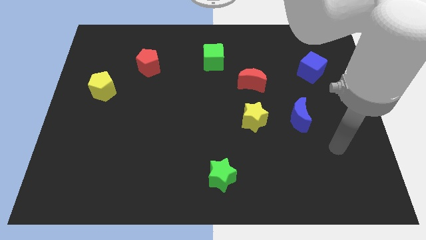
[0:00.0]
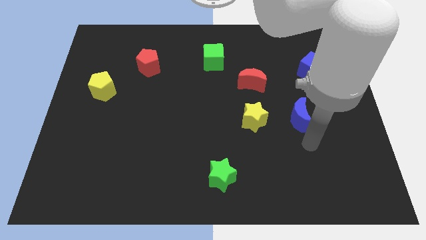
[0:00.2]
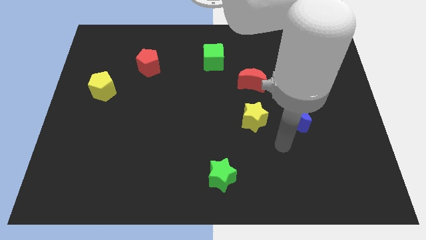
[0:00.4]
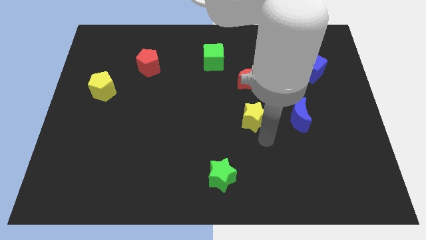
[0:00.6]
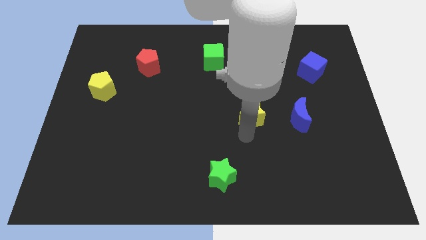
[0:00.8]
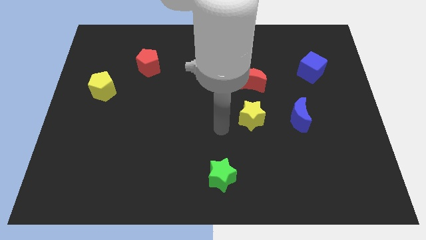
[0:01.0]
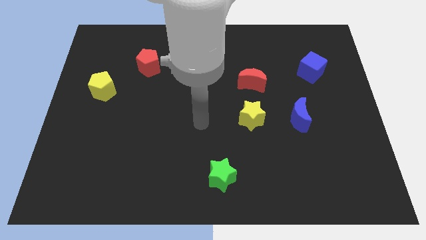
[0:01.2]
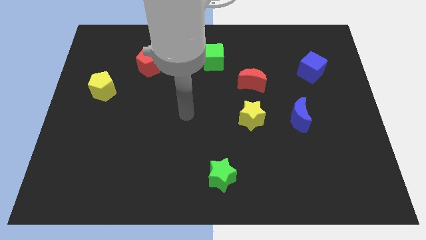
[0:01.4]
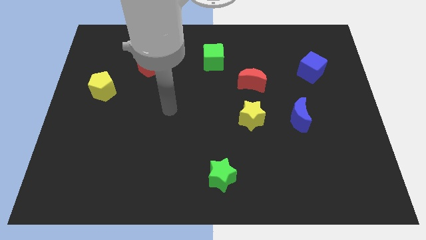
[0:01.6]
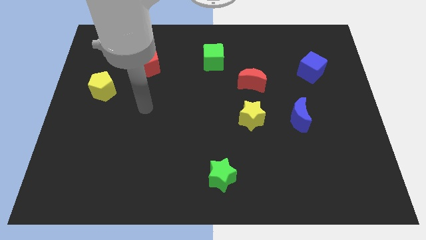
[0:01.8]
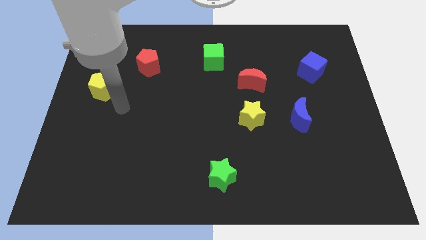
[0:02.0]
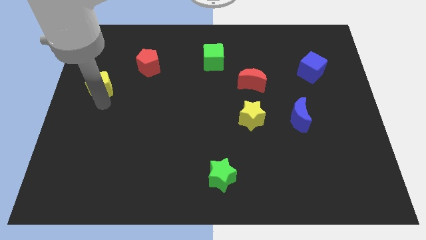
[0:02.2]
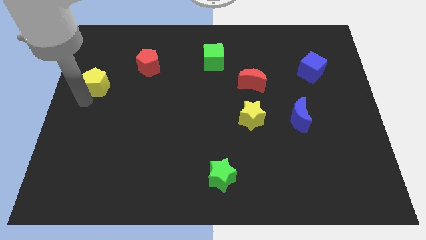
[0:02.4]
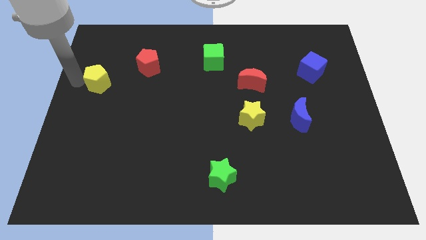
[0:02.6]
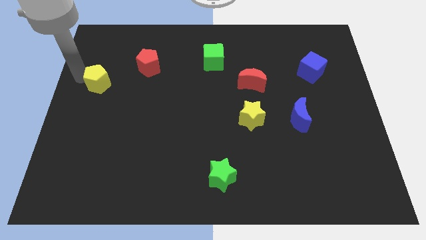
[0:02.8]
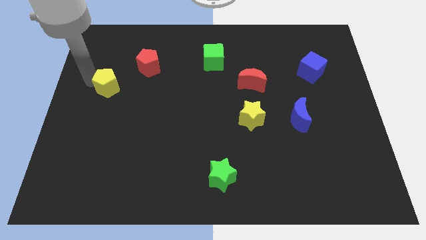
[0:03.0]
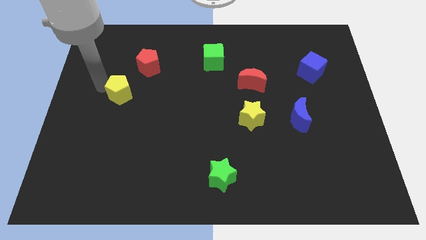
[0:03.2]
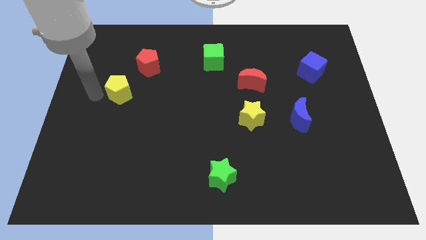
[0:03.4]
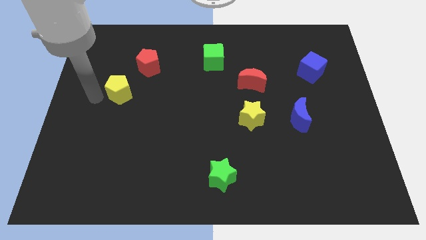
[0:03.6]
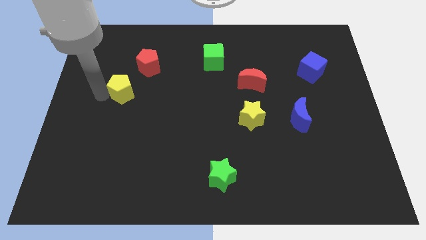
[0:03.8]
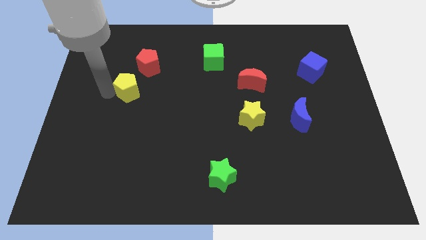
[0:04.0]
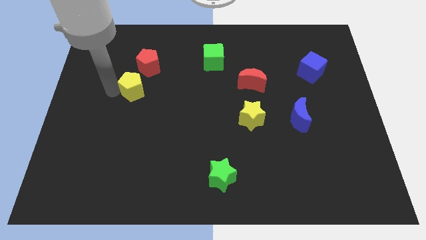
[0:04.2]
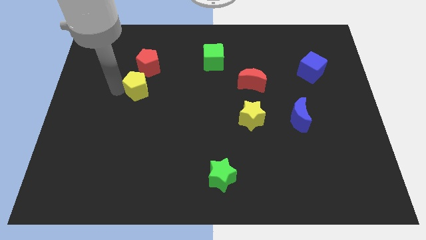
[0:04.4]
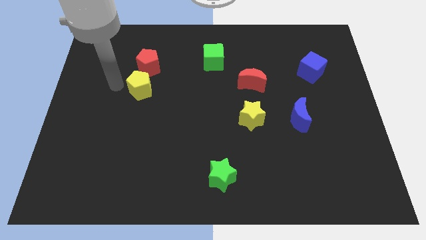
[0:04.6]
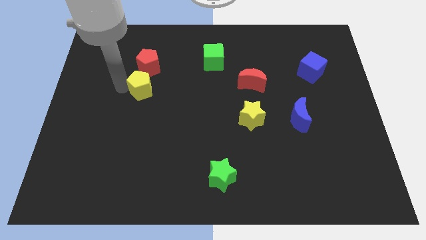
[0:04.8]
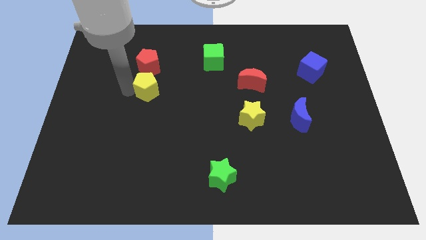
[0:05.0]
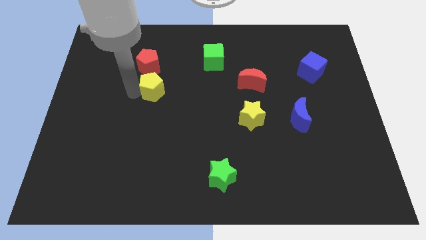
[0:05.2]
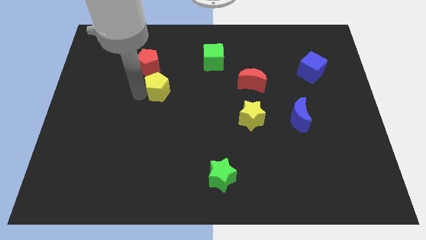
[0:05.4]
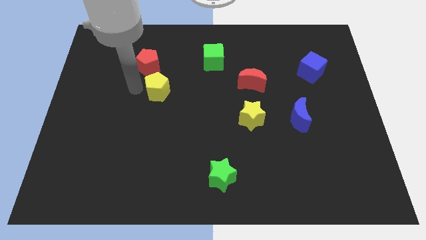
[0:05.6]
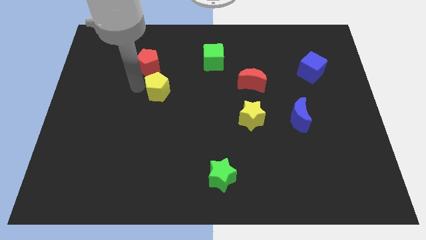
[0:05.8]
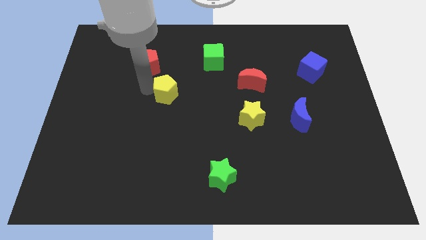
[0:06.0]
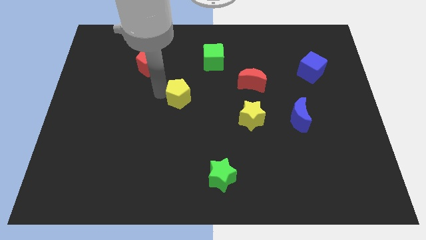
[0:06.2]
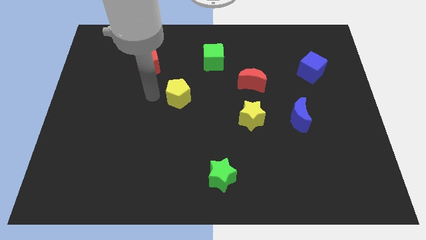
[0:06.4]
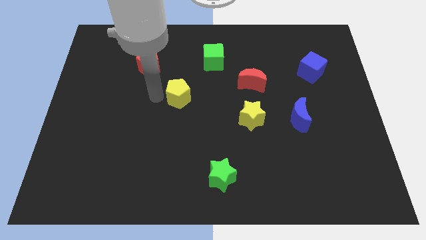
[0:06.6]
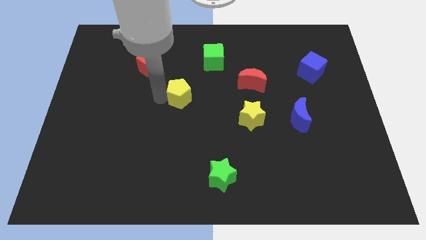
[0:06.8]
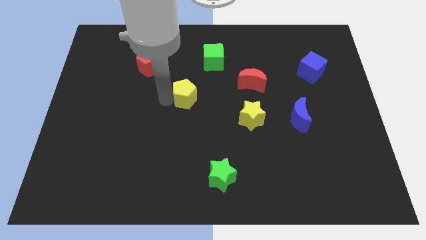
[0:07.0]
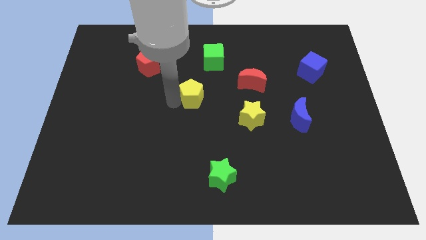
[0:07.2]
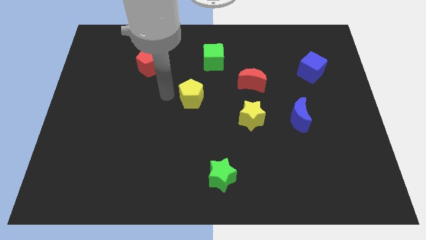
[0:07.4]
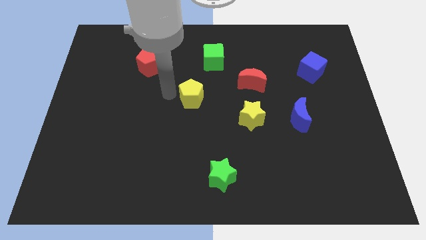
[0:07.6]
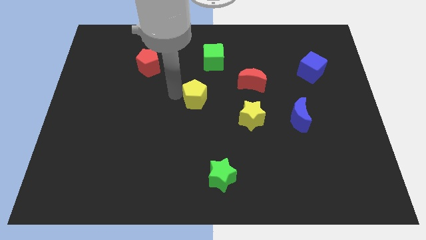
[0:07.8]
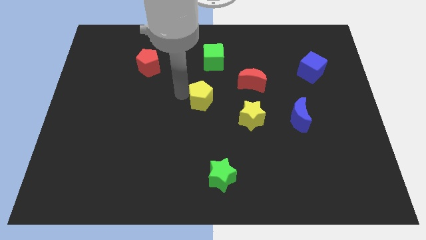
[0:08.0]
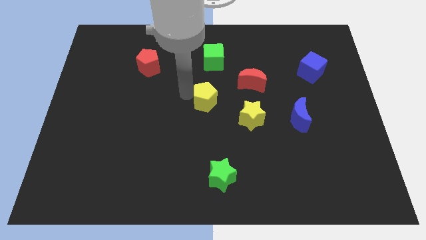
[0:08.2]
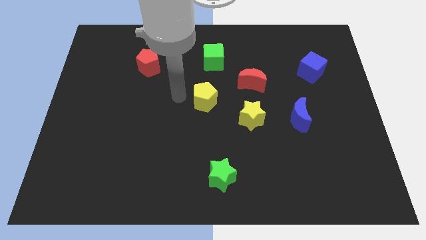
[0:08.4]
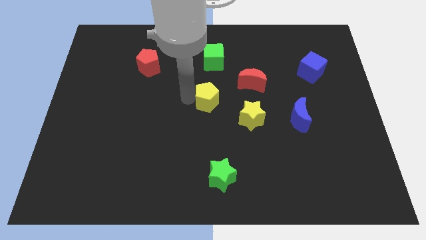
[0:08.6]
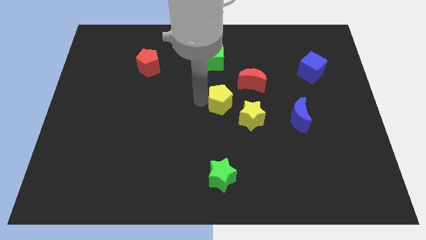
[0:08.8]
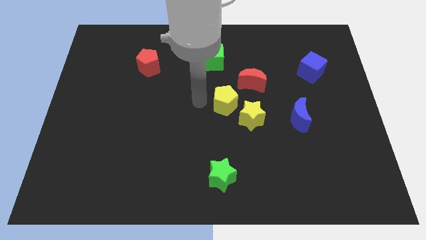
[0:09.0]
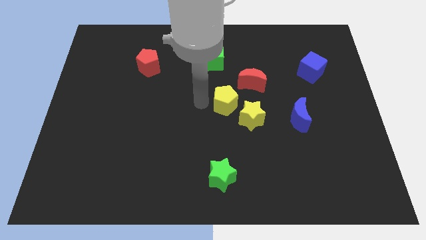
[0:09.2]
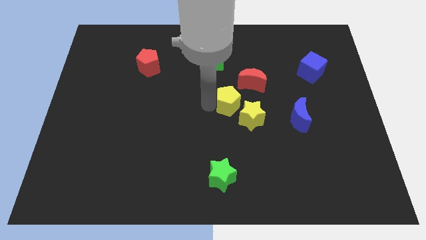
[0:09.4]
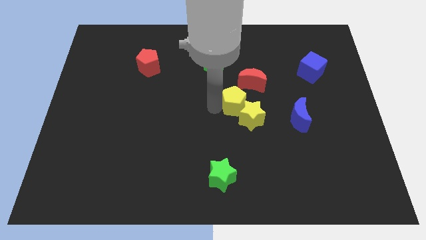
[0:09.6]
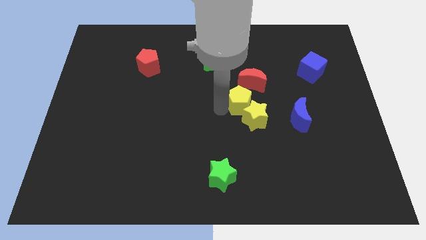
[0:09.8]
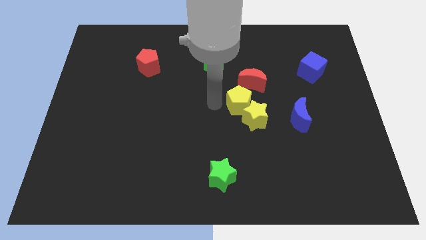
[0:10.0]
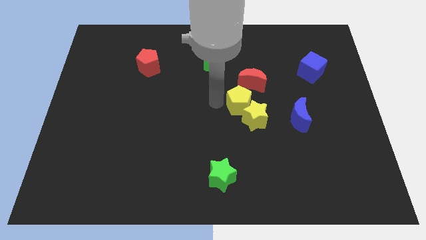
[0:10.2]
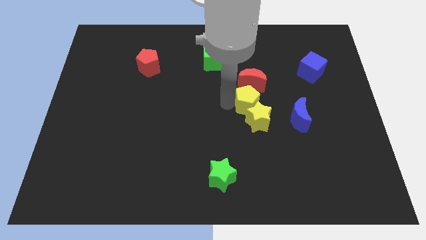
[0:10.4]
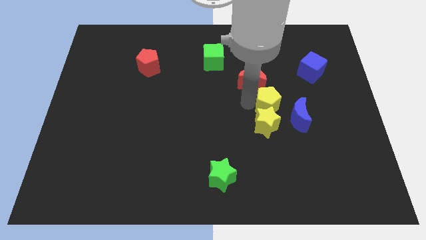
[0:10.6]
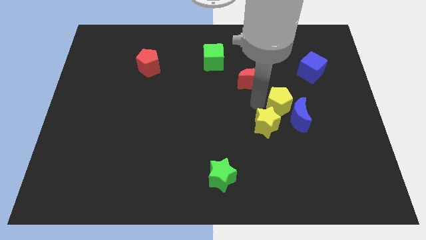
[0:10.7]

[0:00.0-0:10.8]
move the yellow pentagon next to the blue moon

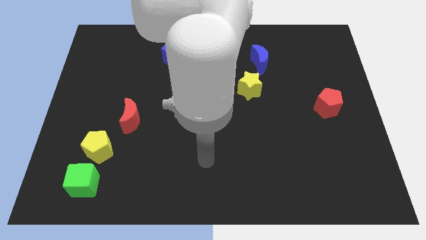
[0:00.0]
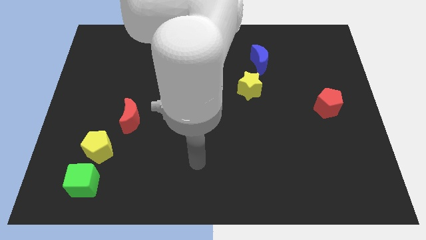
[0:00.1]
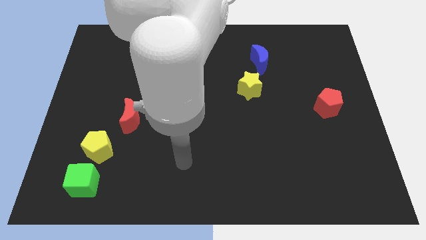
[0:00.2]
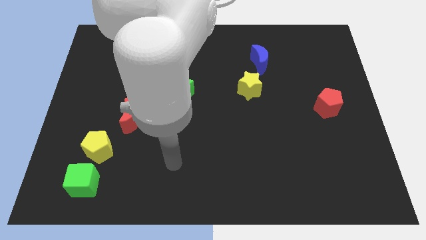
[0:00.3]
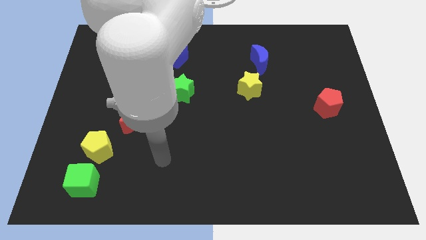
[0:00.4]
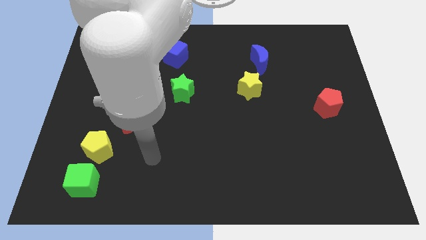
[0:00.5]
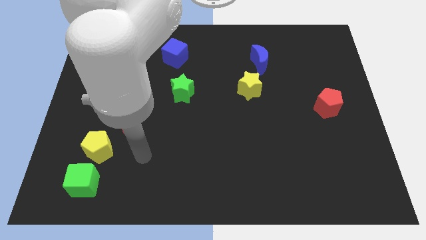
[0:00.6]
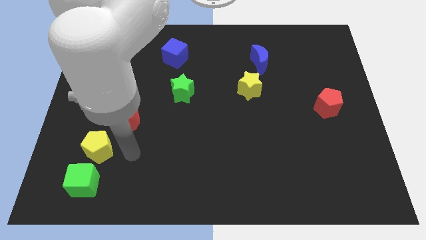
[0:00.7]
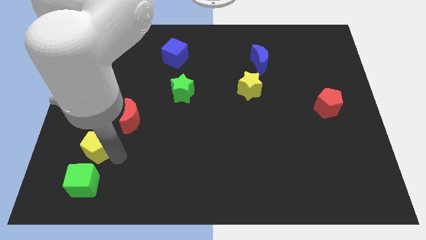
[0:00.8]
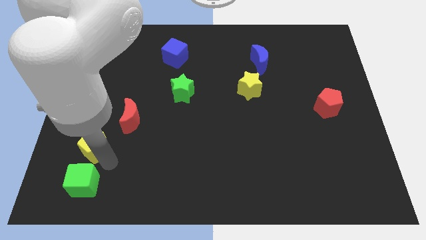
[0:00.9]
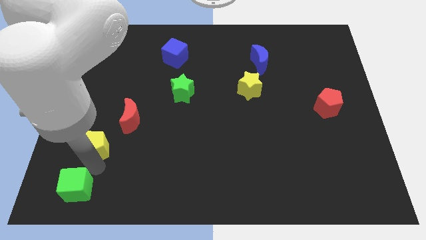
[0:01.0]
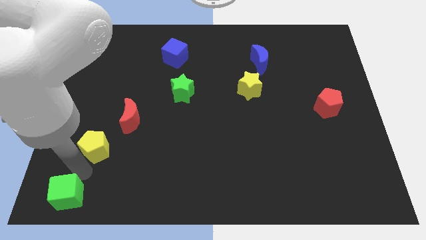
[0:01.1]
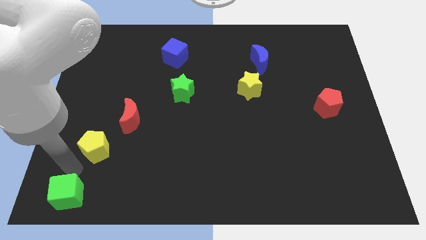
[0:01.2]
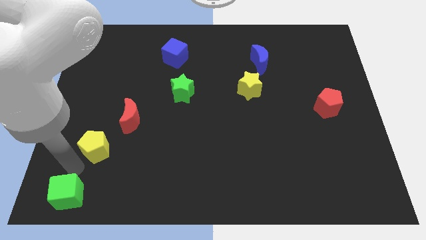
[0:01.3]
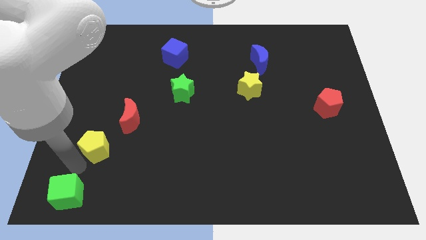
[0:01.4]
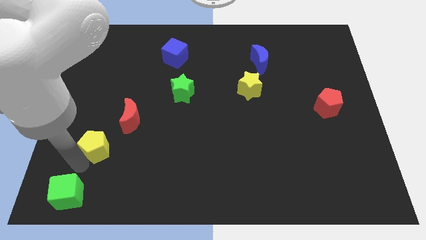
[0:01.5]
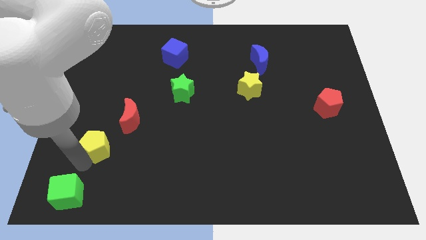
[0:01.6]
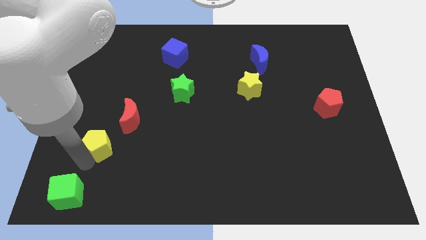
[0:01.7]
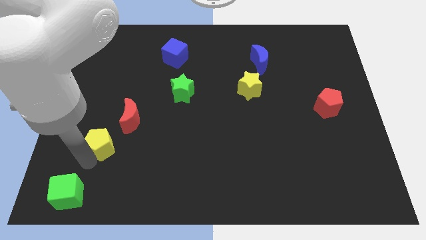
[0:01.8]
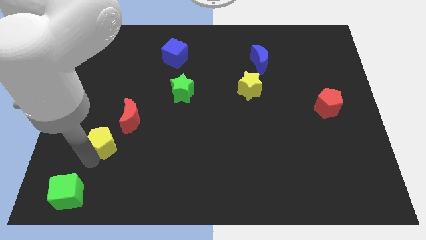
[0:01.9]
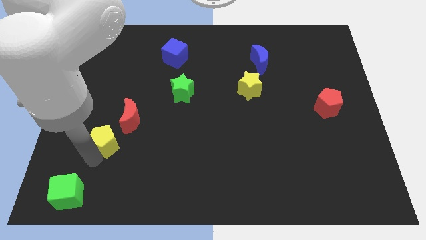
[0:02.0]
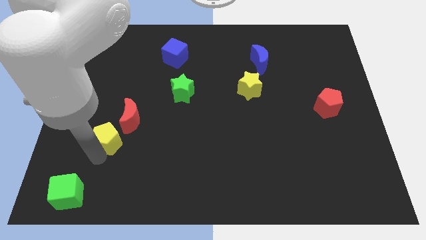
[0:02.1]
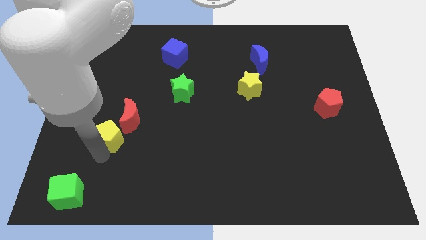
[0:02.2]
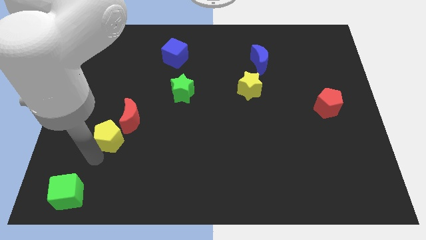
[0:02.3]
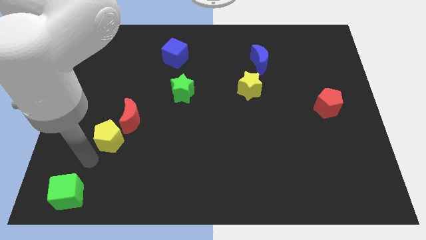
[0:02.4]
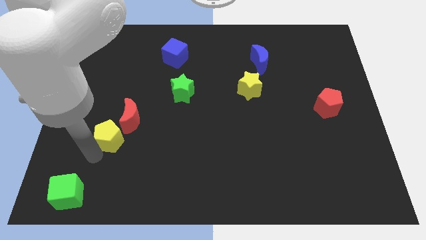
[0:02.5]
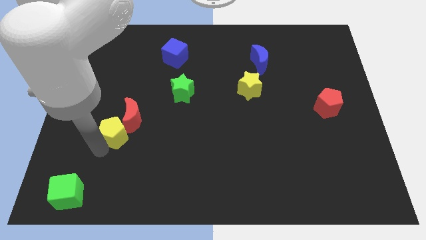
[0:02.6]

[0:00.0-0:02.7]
push the yellow pentagon close to the red moon
